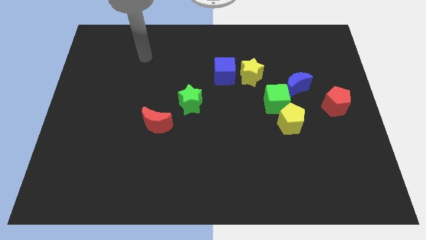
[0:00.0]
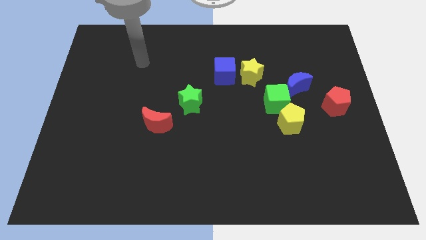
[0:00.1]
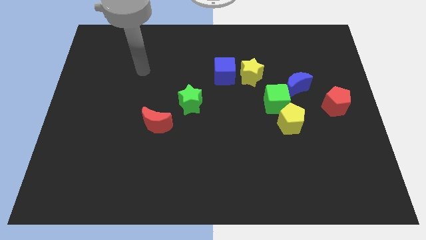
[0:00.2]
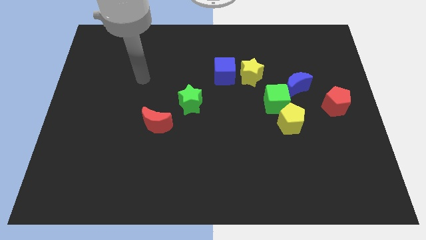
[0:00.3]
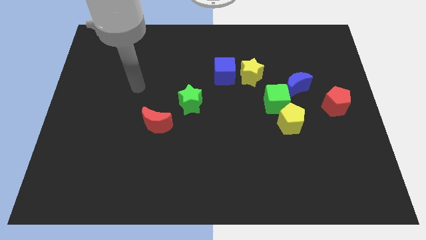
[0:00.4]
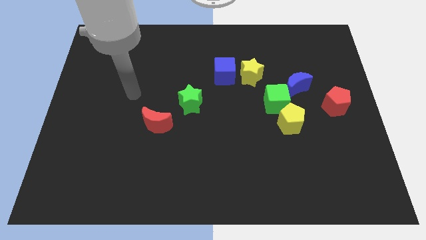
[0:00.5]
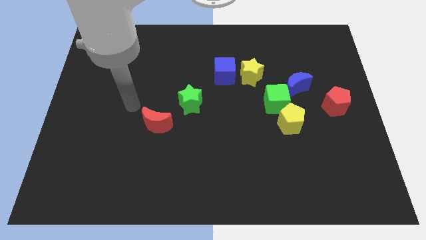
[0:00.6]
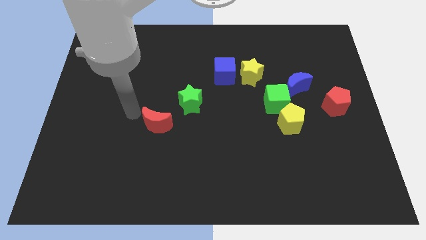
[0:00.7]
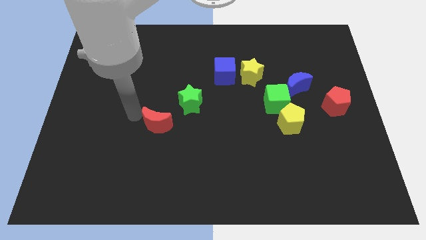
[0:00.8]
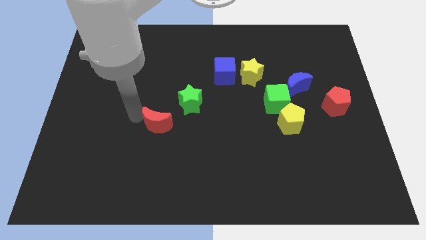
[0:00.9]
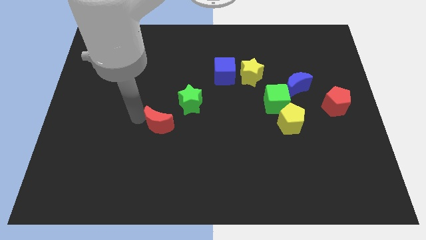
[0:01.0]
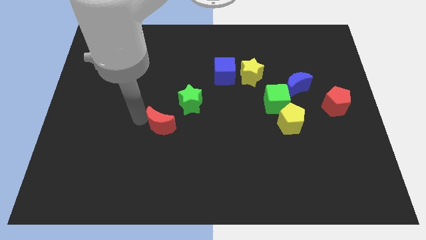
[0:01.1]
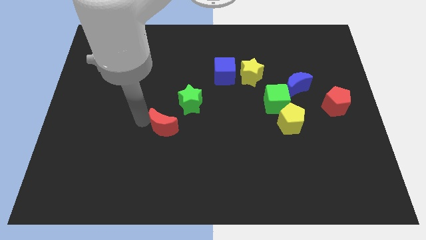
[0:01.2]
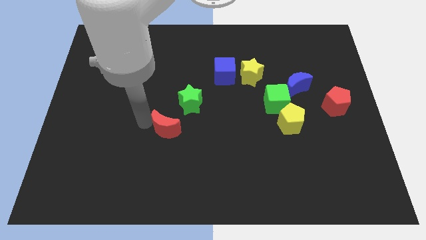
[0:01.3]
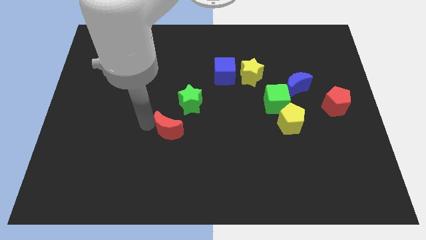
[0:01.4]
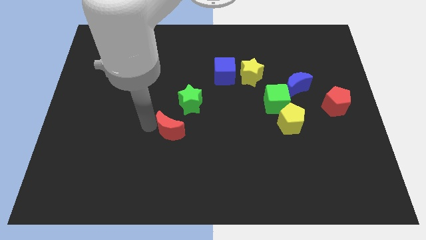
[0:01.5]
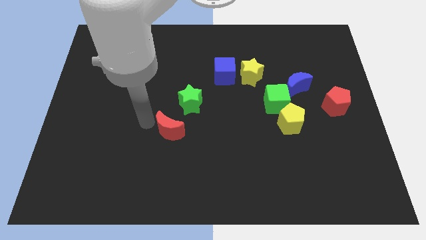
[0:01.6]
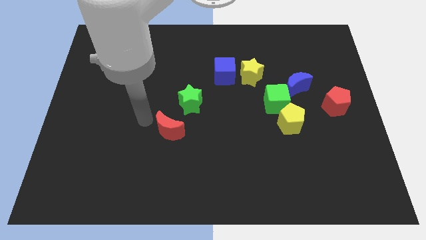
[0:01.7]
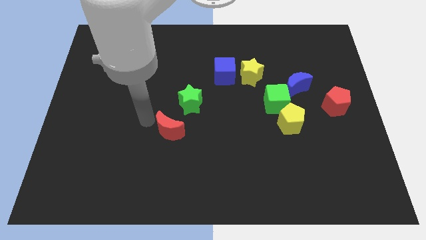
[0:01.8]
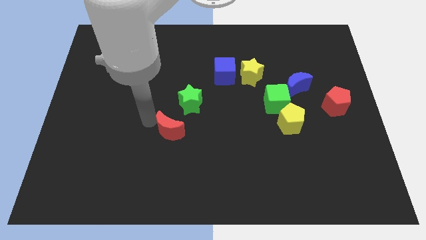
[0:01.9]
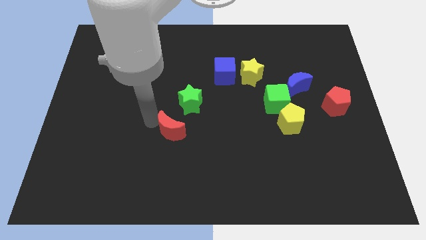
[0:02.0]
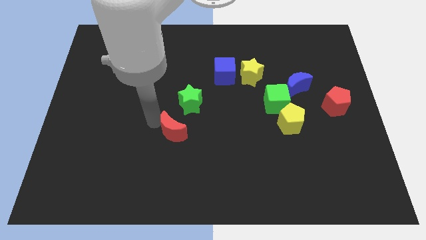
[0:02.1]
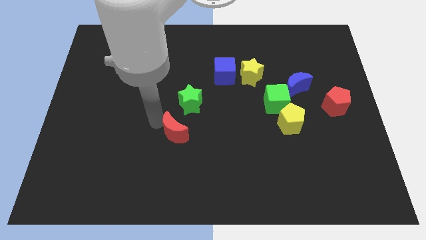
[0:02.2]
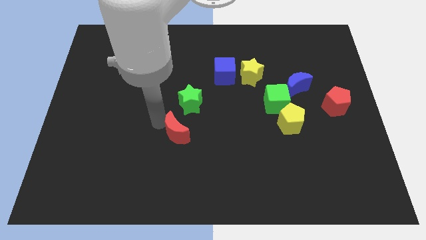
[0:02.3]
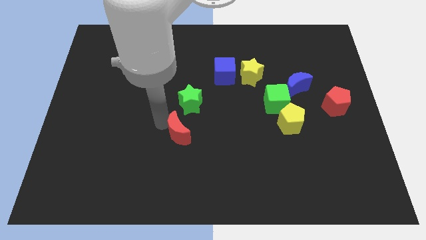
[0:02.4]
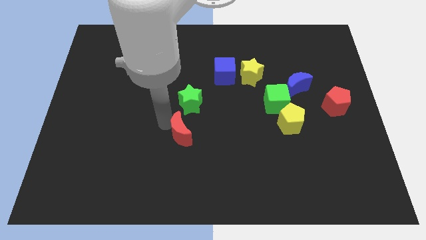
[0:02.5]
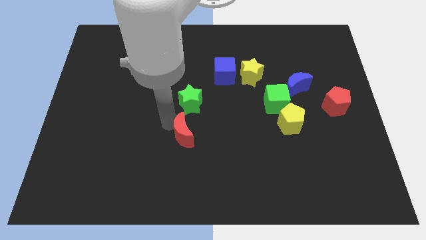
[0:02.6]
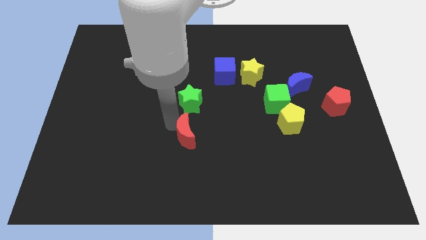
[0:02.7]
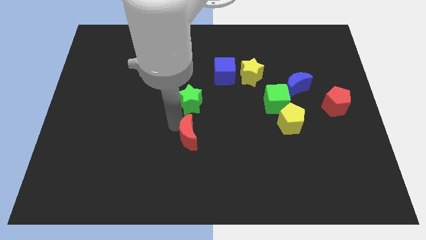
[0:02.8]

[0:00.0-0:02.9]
slightly slide the red moon downwards and right

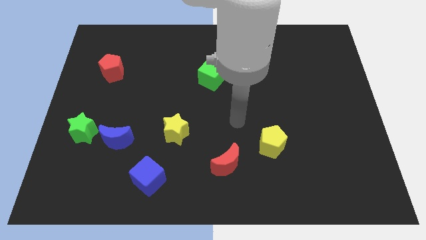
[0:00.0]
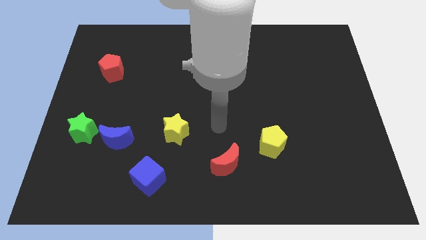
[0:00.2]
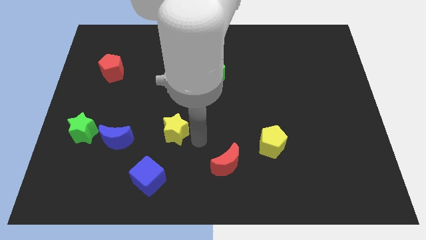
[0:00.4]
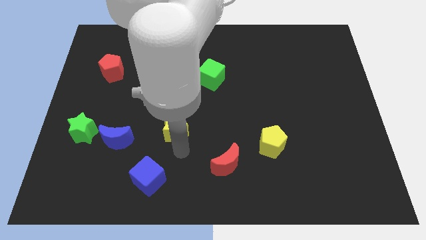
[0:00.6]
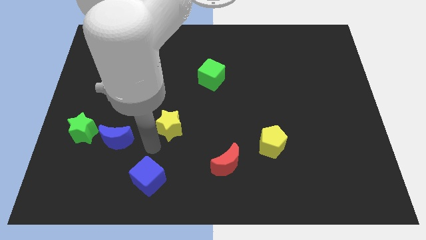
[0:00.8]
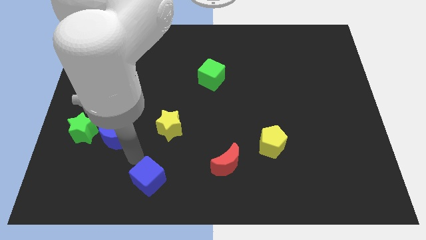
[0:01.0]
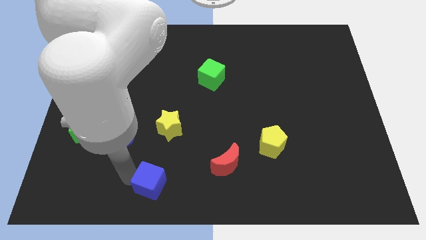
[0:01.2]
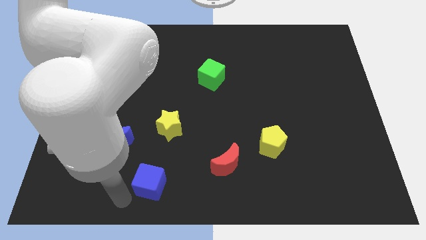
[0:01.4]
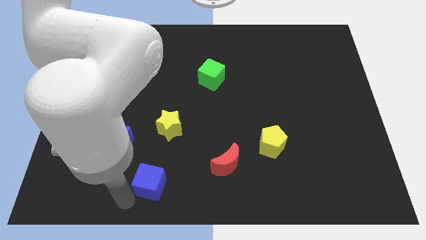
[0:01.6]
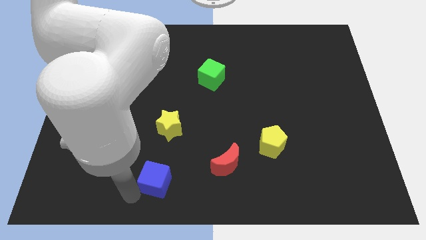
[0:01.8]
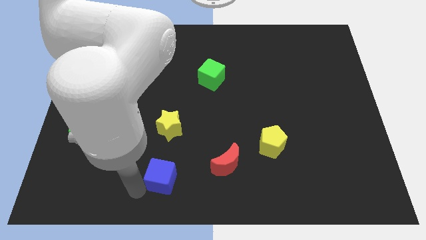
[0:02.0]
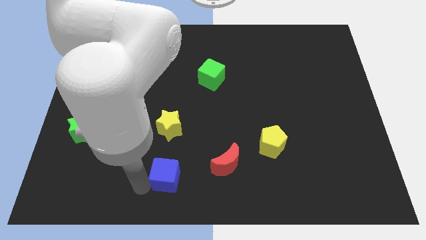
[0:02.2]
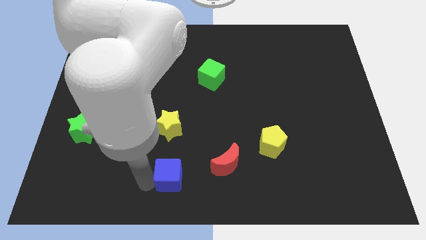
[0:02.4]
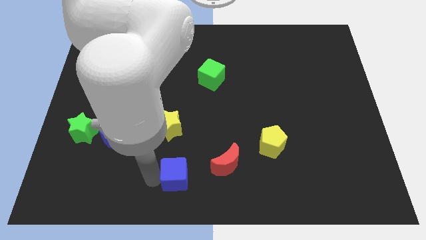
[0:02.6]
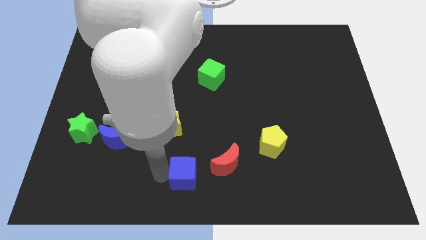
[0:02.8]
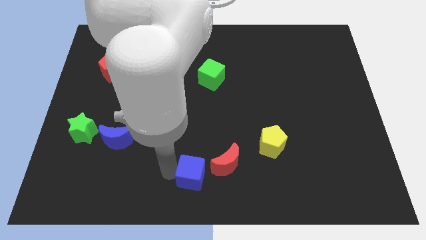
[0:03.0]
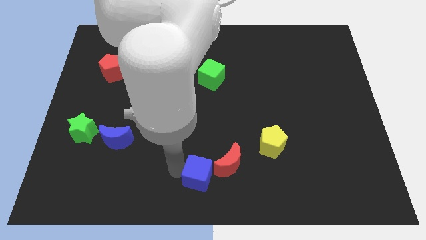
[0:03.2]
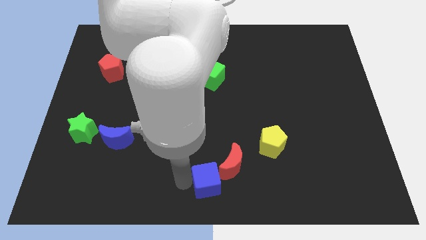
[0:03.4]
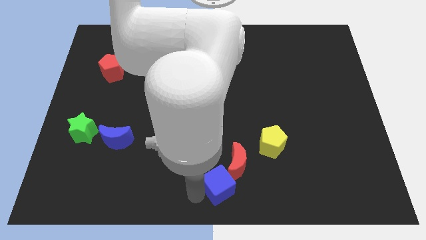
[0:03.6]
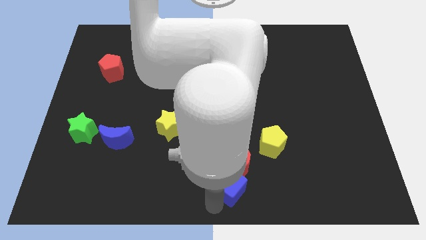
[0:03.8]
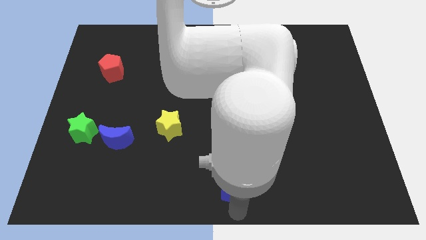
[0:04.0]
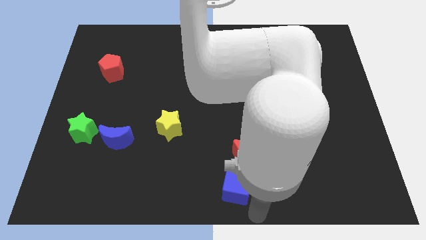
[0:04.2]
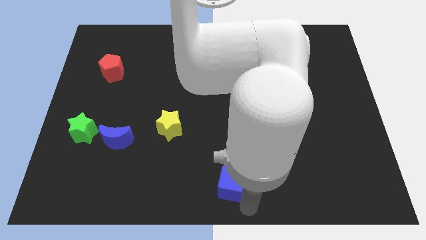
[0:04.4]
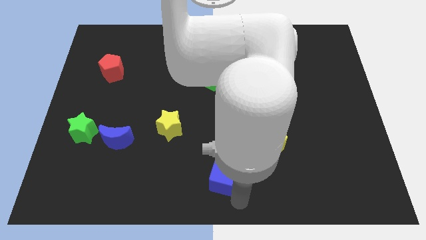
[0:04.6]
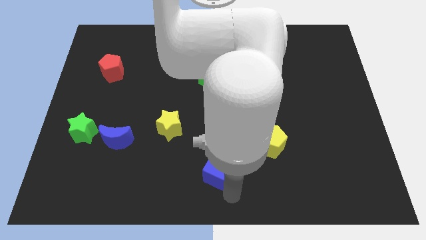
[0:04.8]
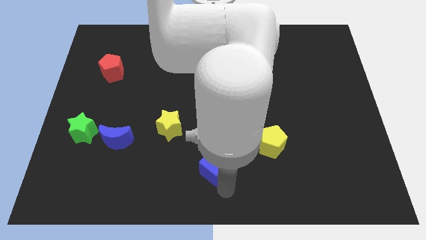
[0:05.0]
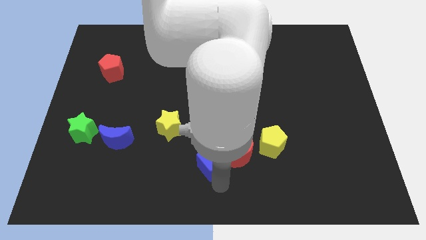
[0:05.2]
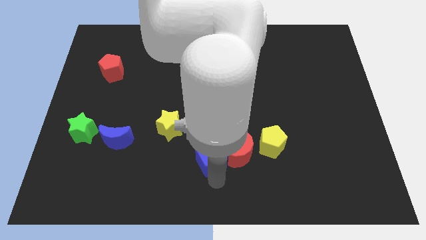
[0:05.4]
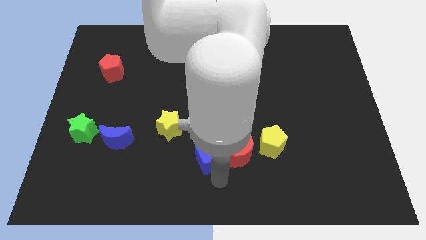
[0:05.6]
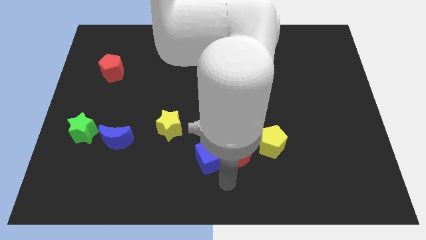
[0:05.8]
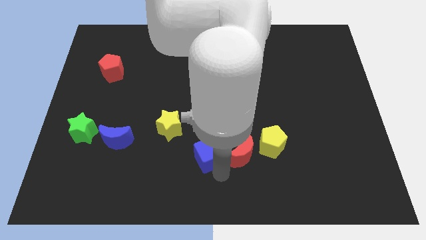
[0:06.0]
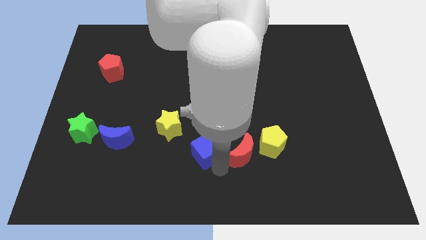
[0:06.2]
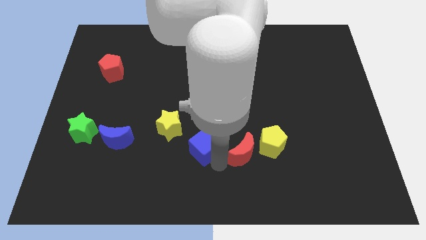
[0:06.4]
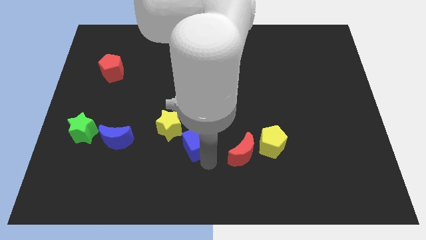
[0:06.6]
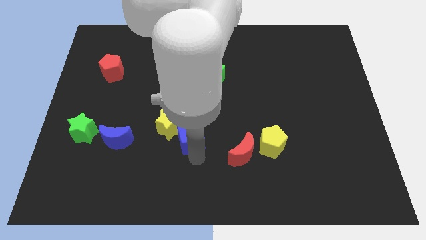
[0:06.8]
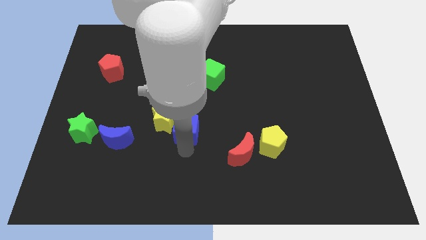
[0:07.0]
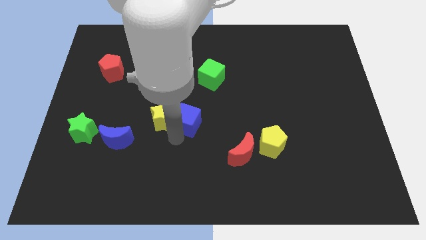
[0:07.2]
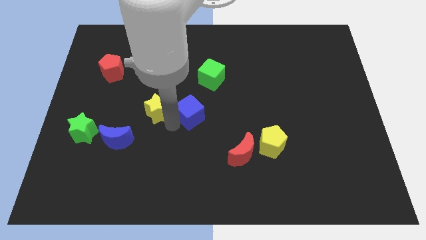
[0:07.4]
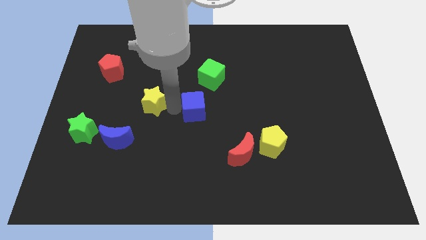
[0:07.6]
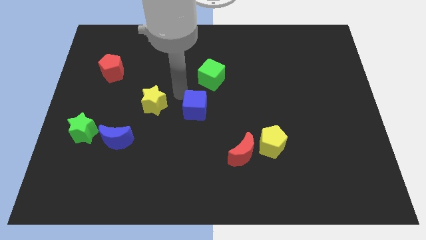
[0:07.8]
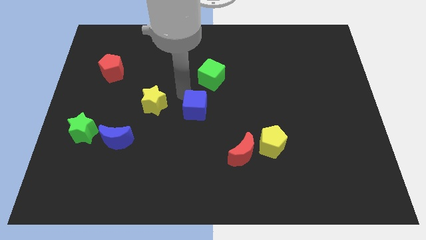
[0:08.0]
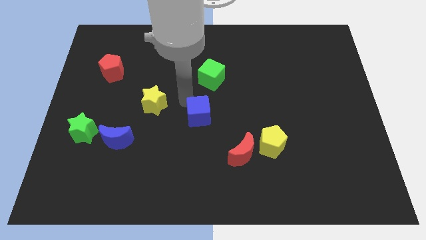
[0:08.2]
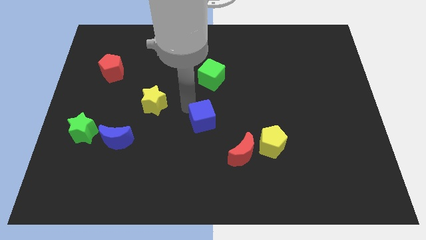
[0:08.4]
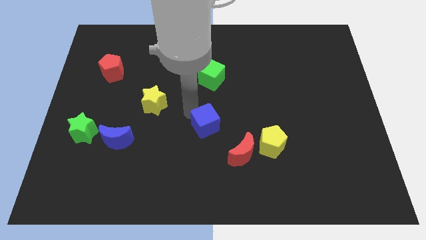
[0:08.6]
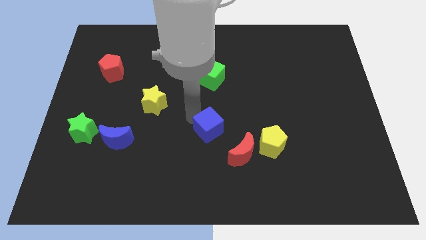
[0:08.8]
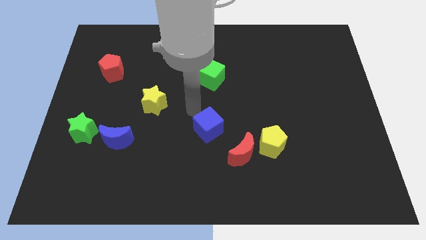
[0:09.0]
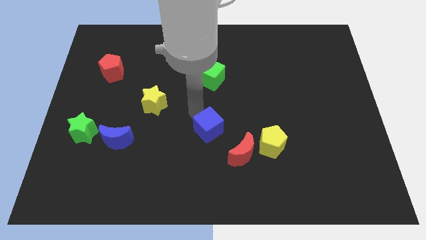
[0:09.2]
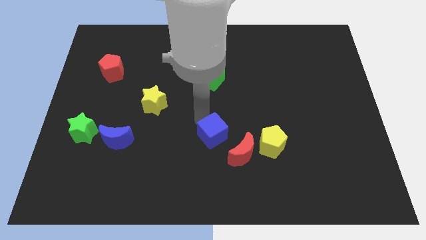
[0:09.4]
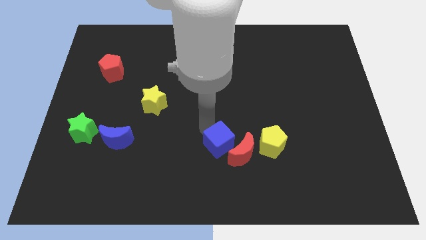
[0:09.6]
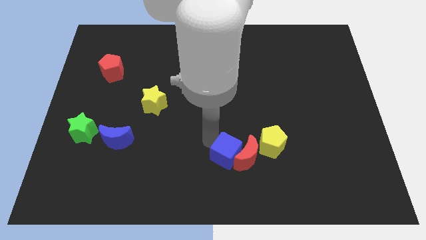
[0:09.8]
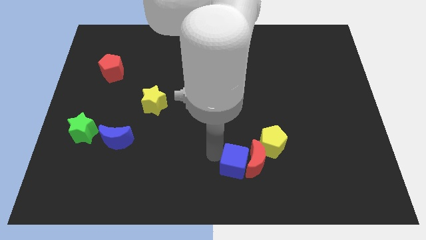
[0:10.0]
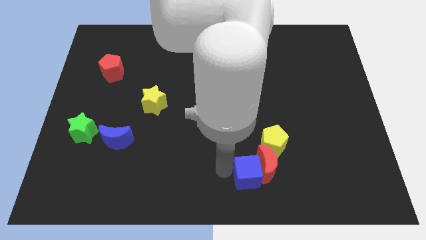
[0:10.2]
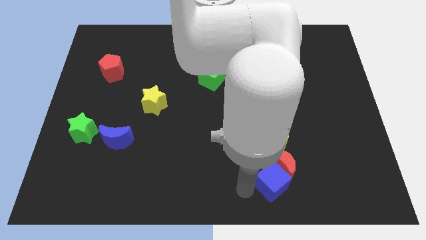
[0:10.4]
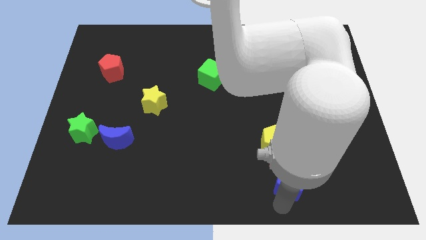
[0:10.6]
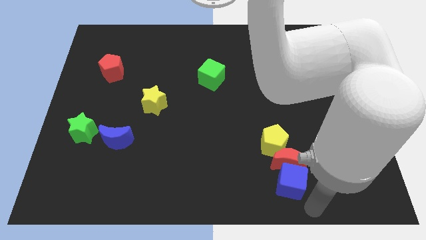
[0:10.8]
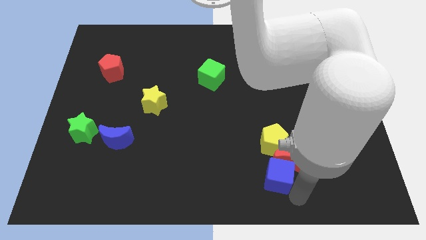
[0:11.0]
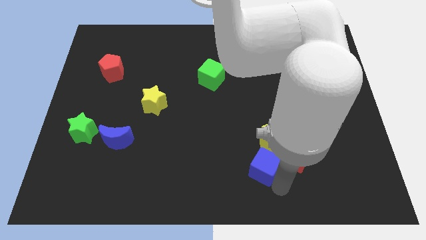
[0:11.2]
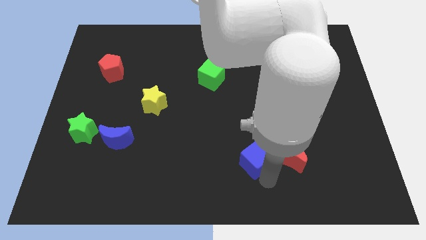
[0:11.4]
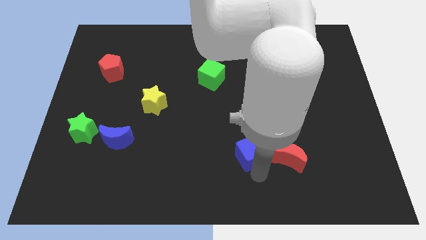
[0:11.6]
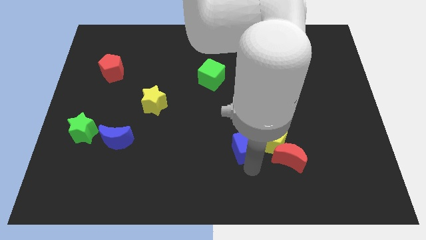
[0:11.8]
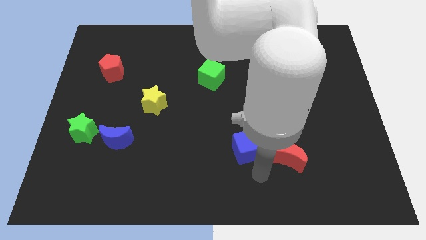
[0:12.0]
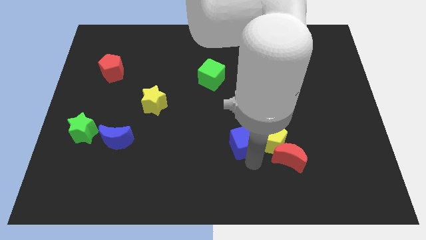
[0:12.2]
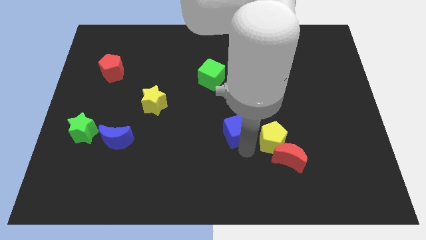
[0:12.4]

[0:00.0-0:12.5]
slide the blue cube upwards and right
